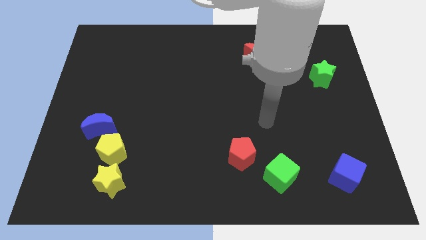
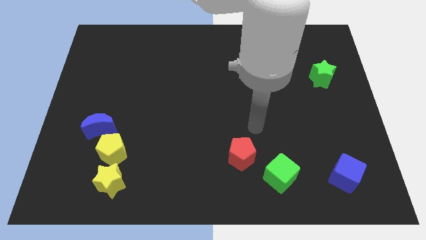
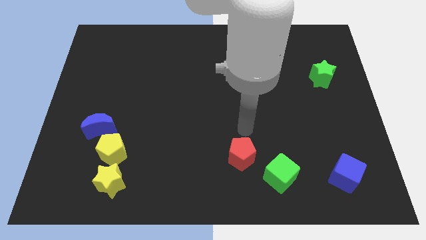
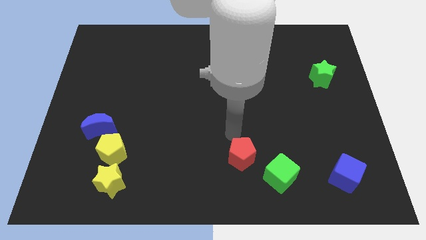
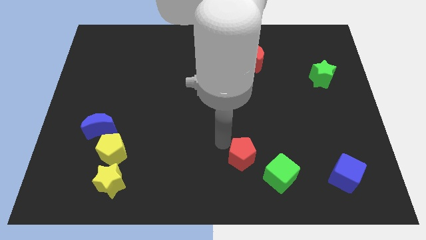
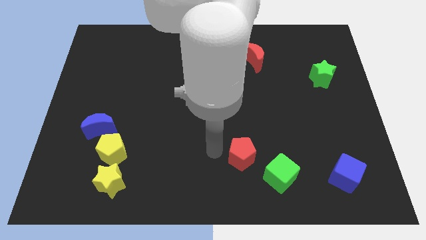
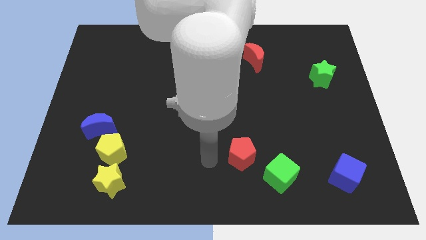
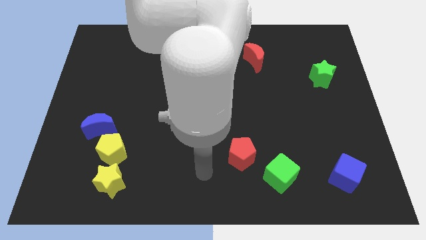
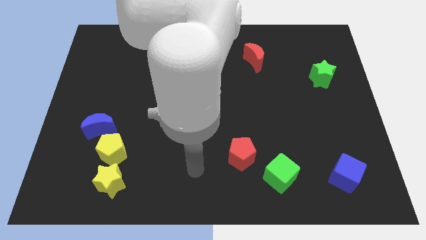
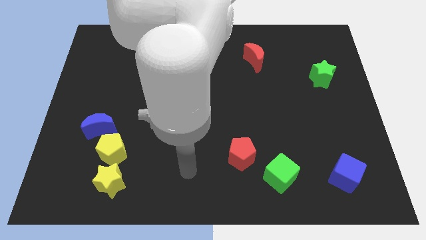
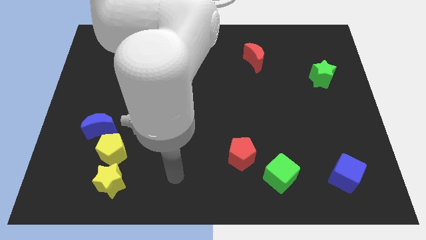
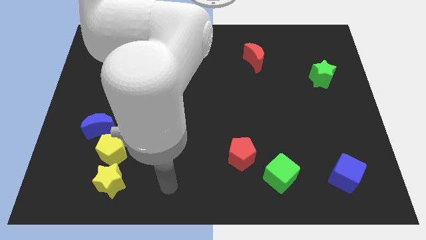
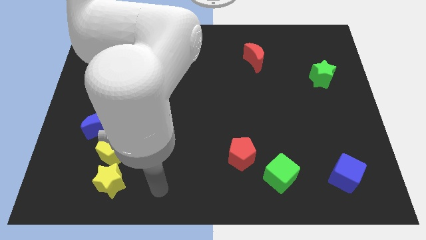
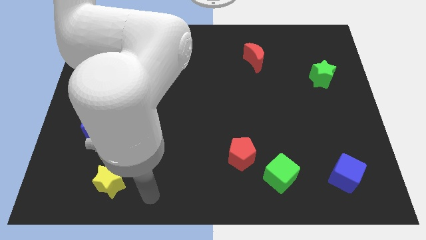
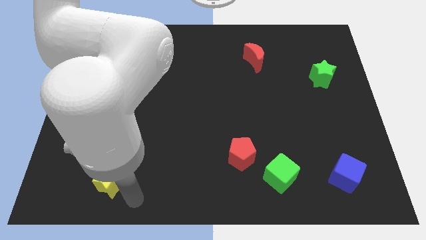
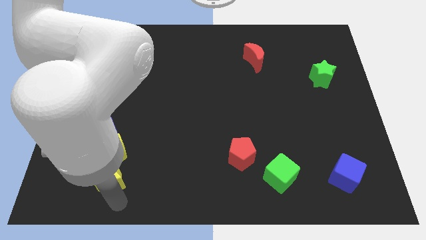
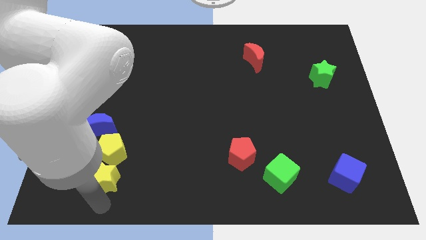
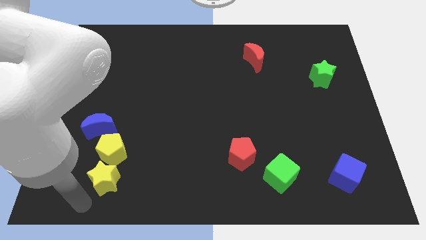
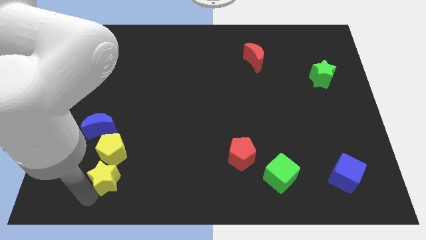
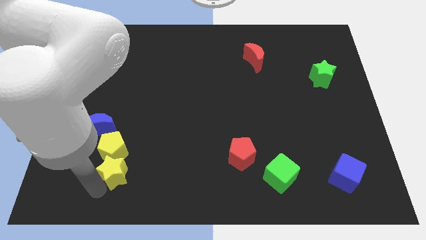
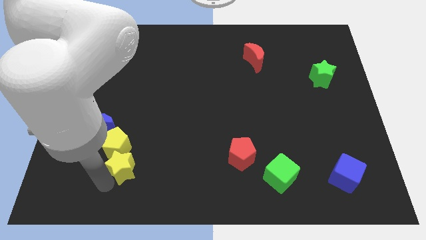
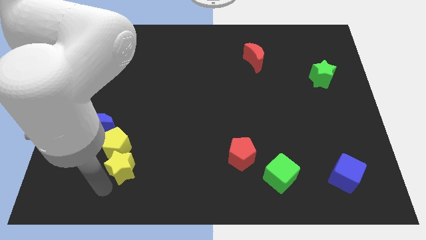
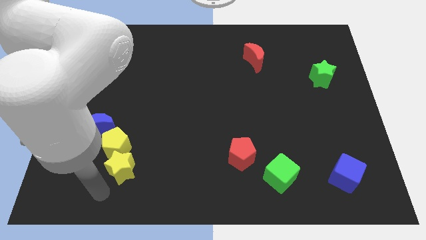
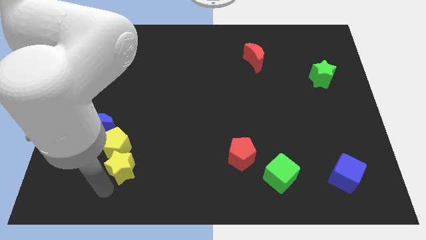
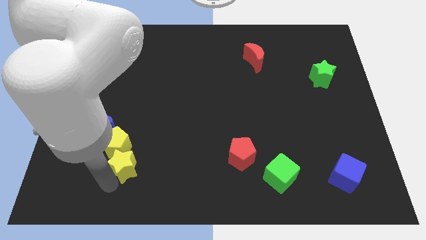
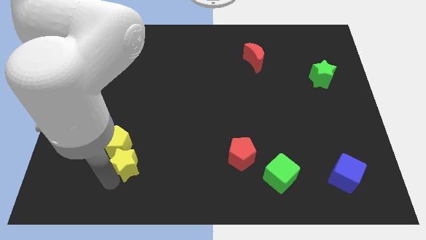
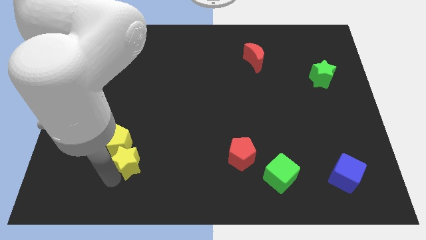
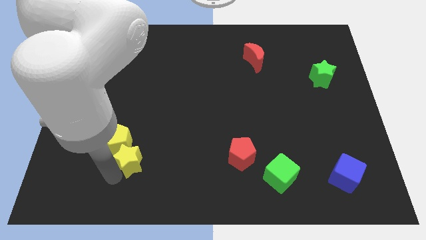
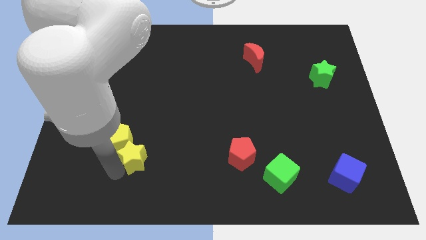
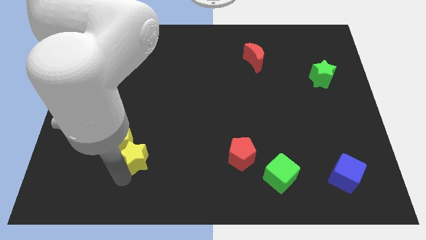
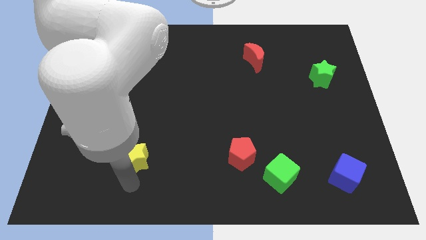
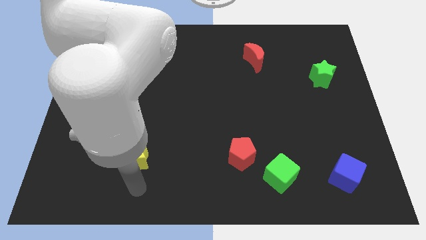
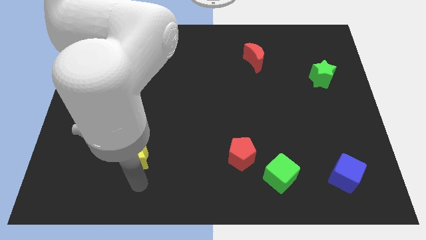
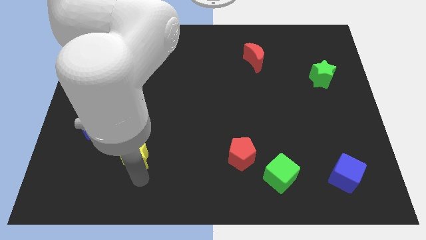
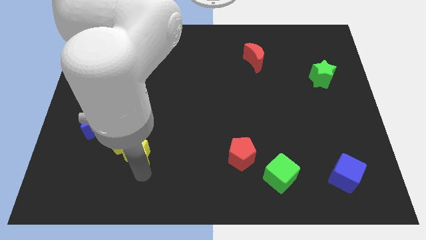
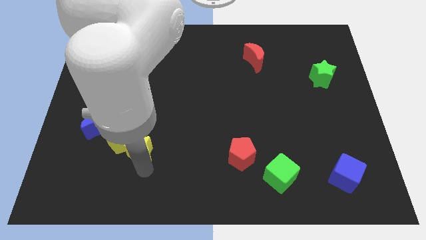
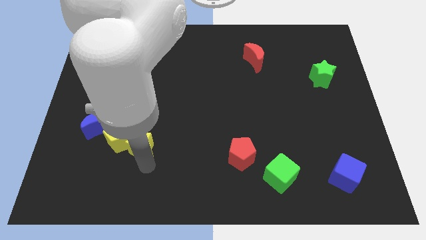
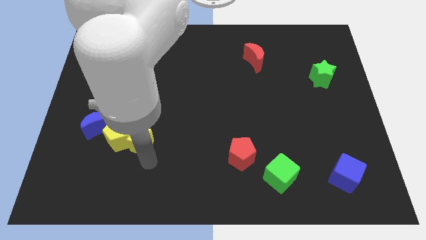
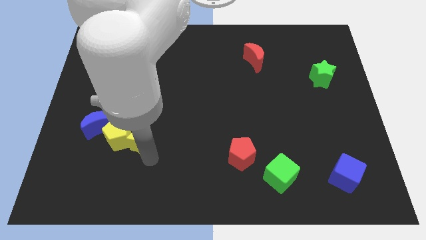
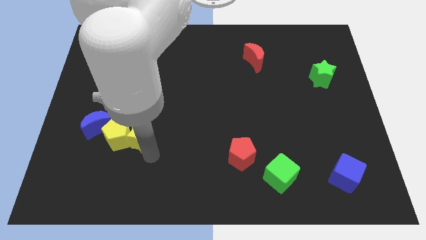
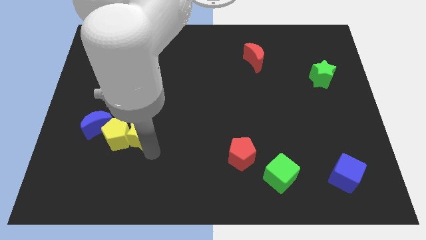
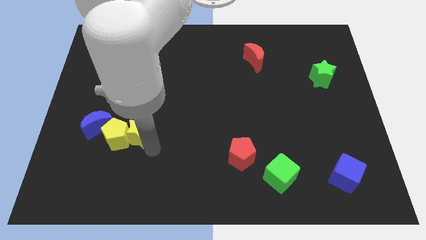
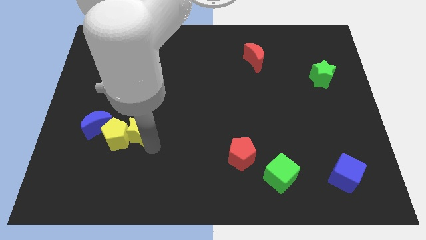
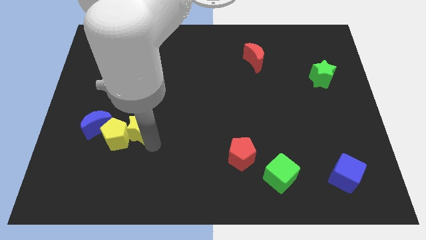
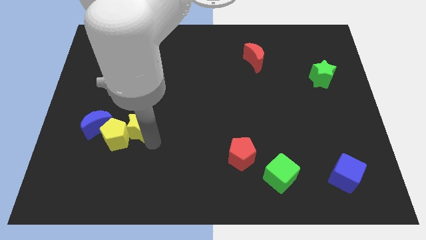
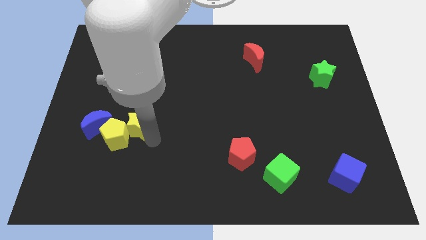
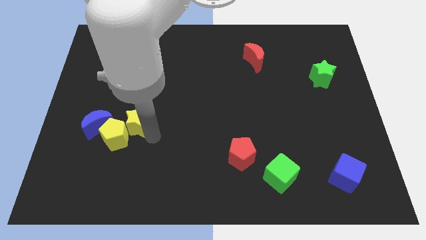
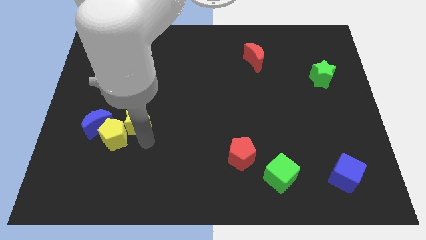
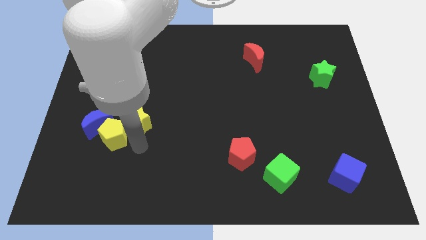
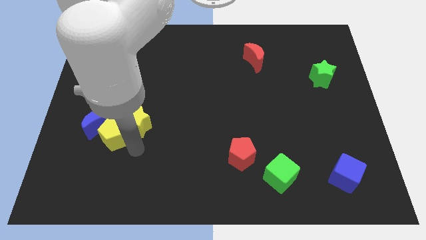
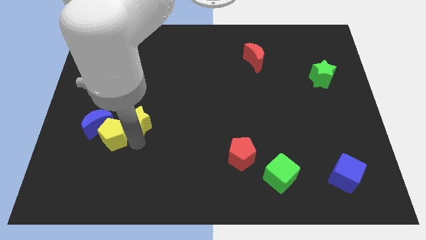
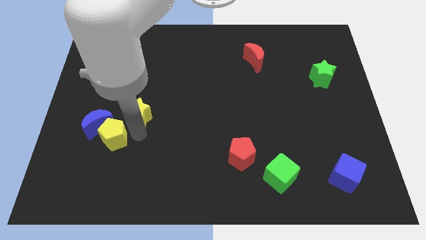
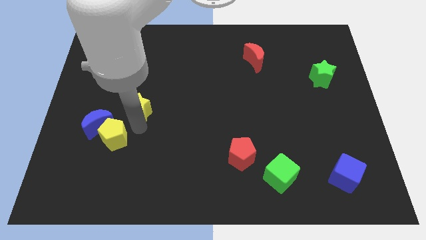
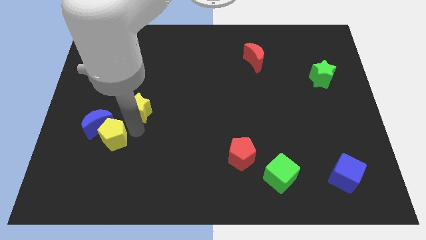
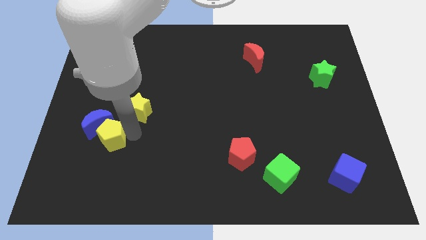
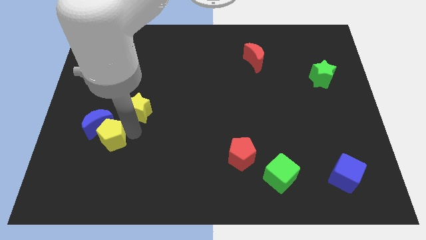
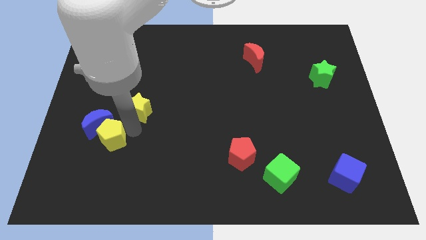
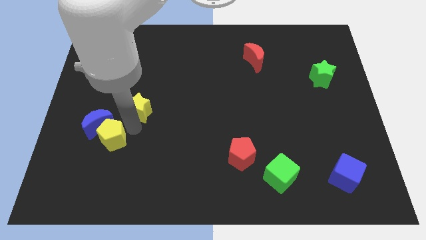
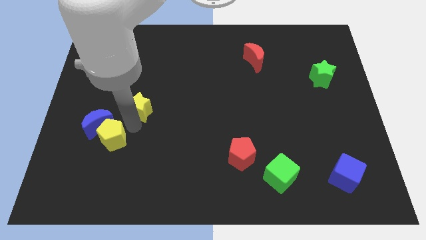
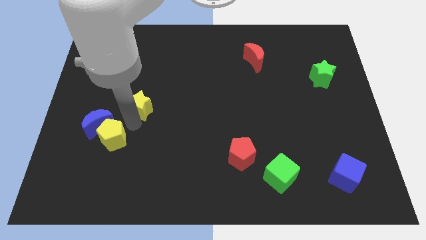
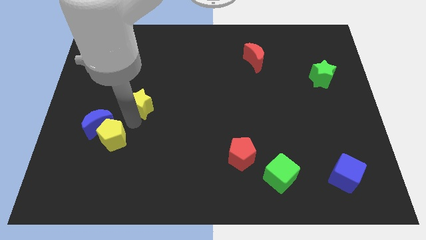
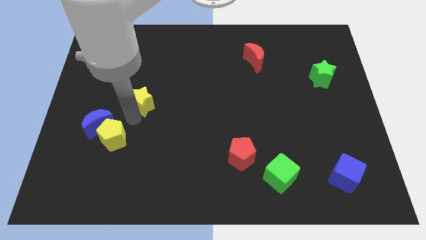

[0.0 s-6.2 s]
move the yellow star upwards

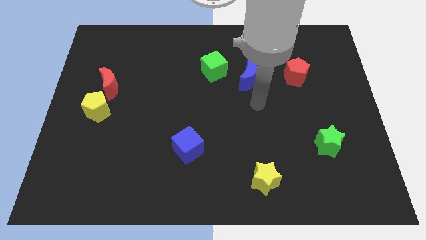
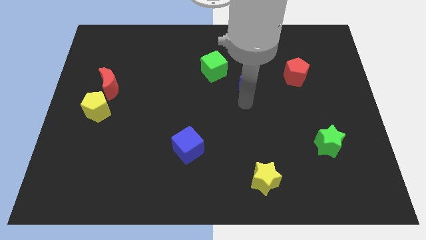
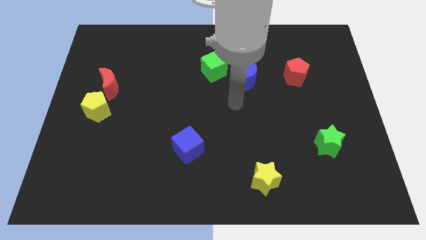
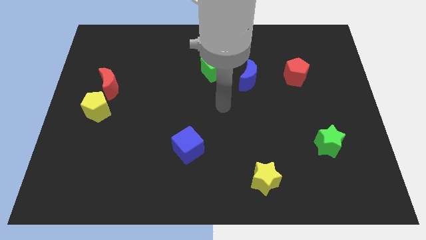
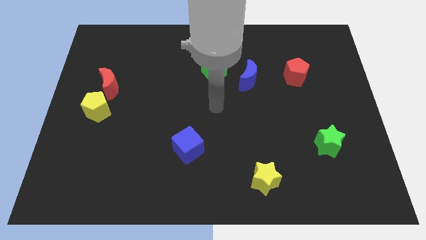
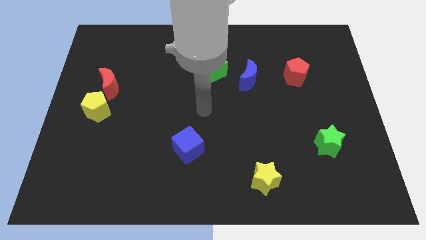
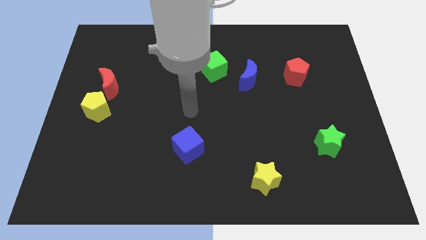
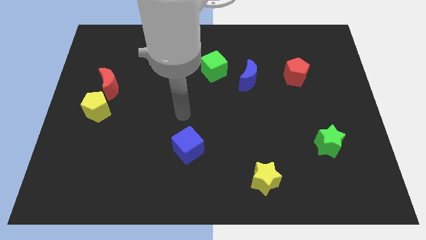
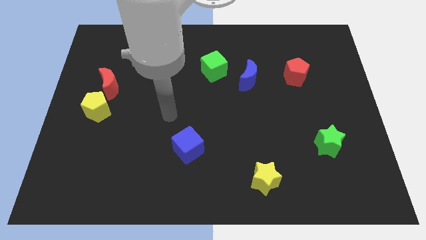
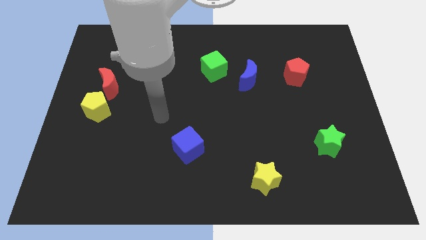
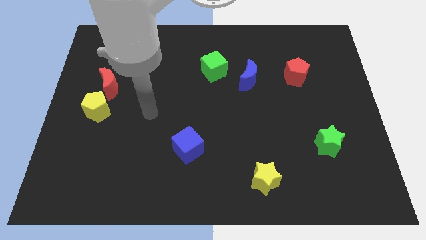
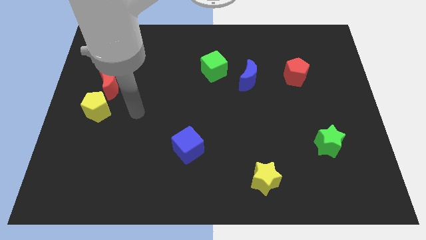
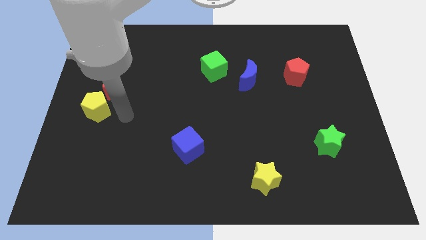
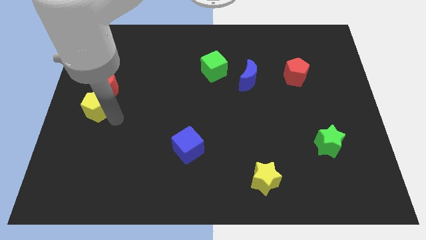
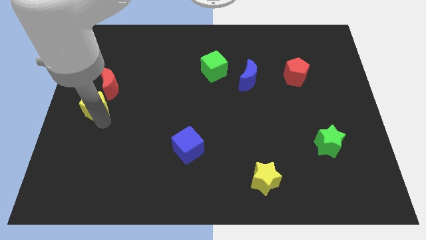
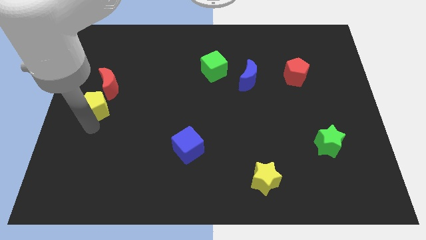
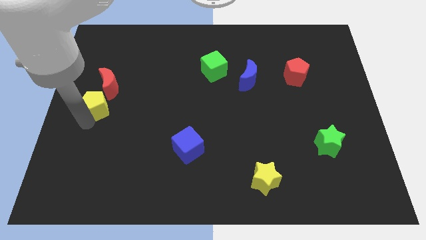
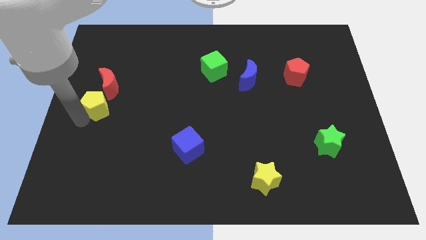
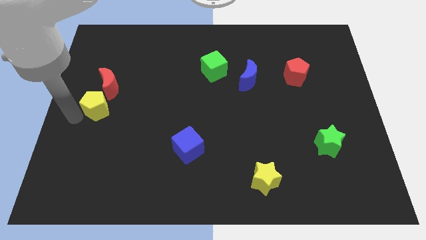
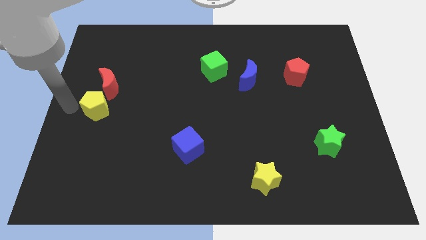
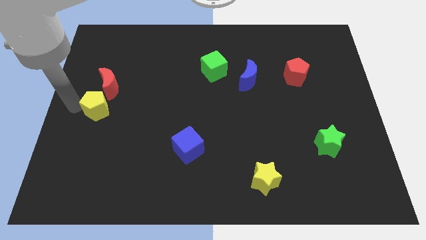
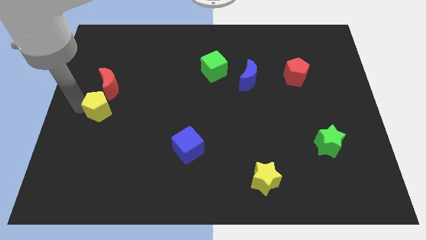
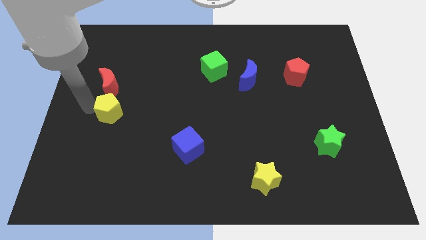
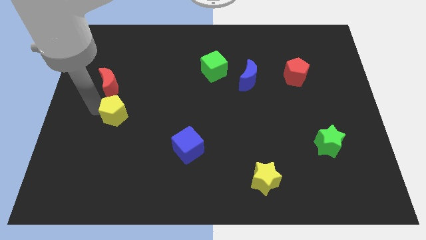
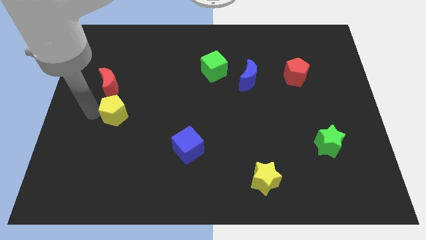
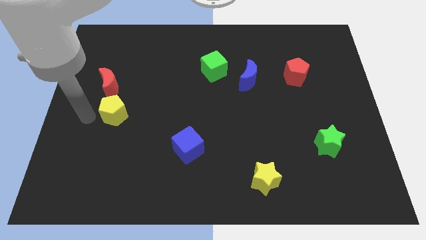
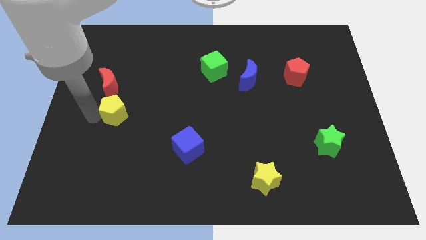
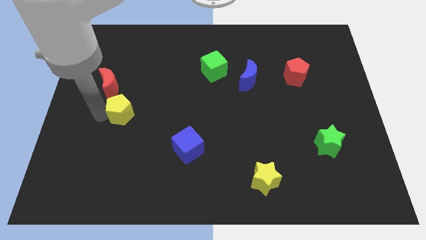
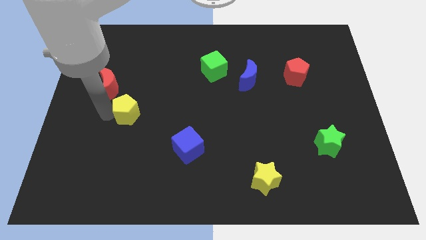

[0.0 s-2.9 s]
push the yellow pentagon right somewhat
